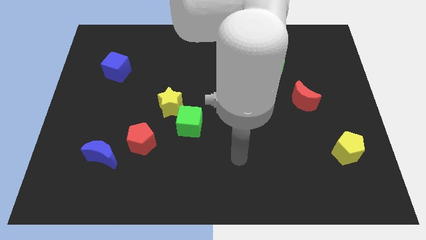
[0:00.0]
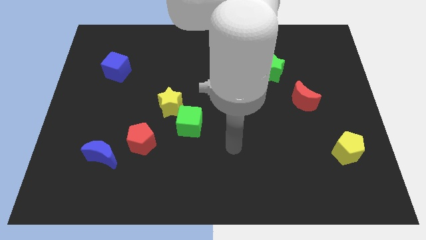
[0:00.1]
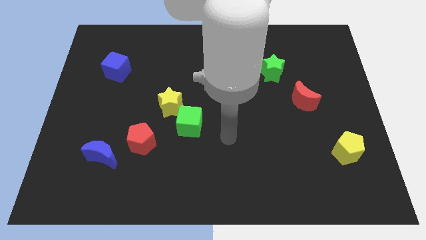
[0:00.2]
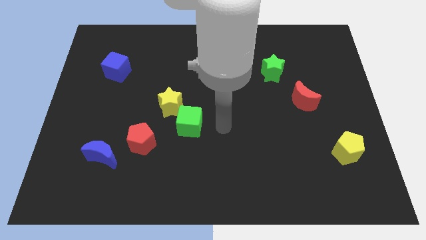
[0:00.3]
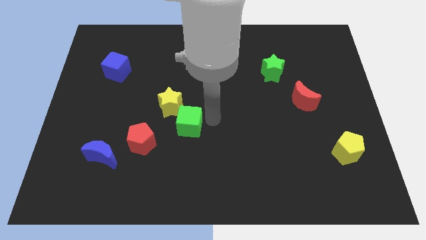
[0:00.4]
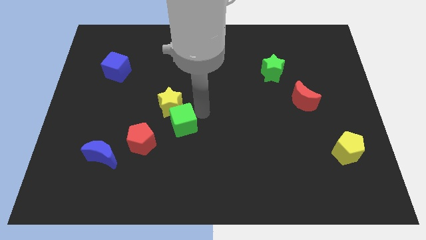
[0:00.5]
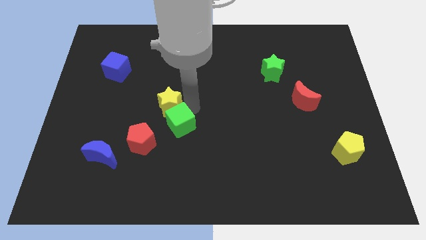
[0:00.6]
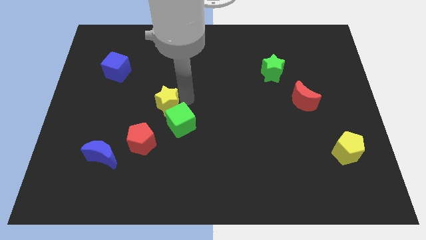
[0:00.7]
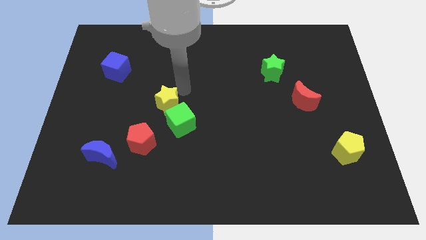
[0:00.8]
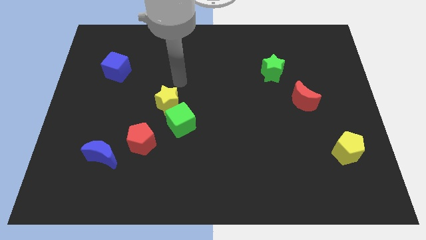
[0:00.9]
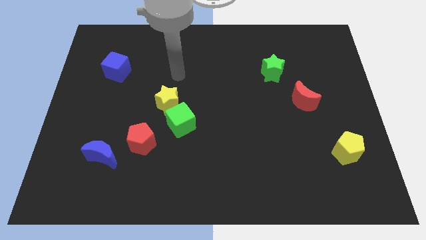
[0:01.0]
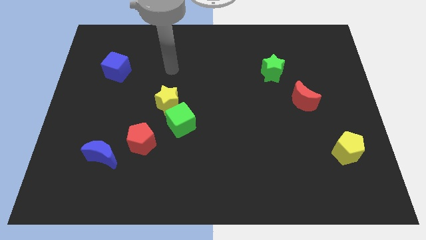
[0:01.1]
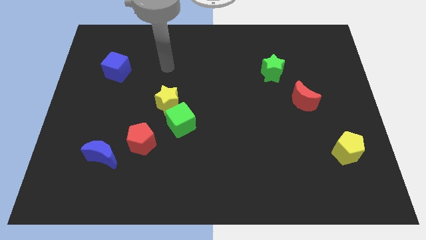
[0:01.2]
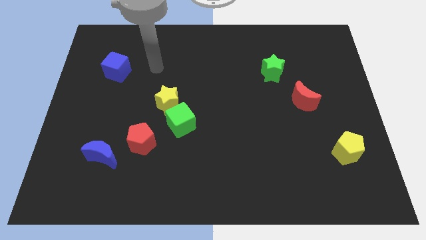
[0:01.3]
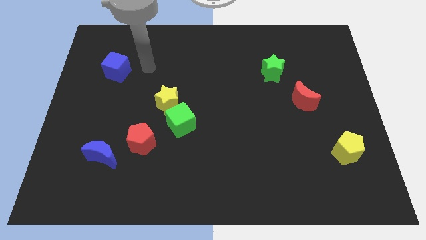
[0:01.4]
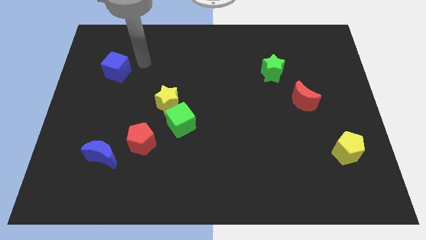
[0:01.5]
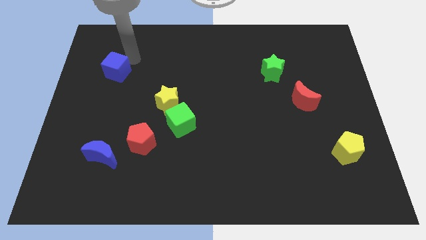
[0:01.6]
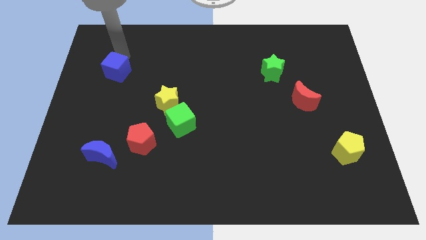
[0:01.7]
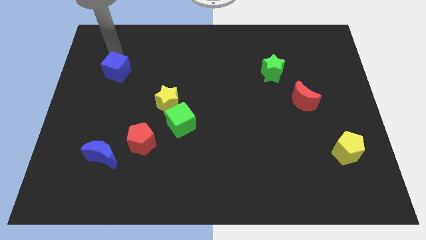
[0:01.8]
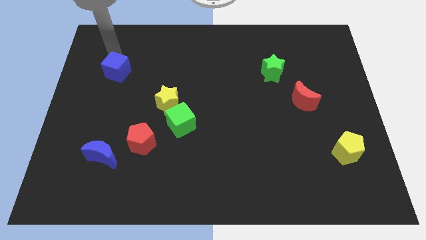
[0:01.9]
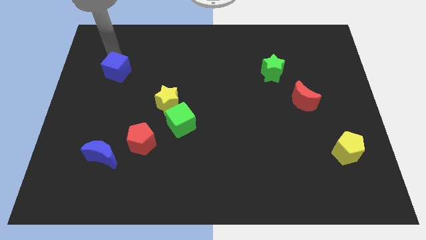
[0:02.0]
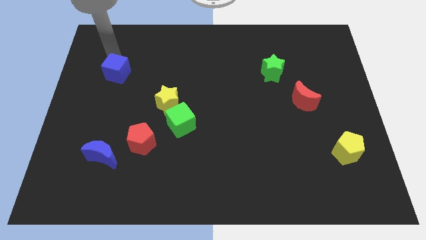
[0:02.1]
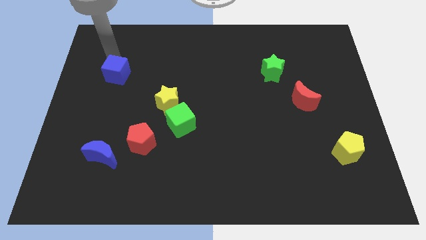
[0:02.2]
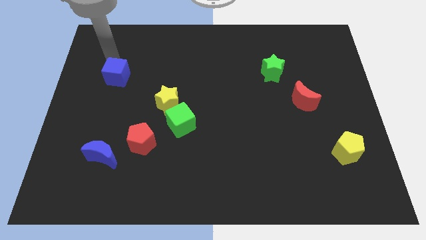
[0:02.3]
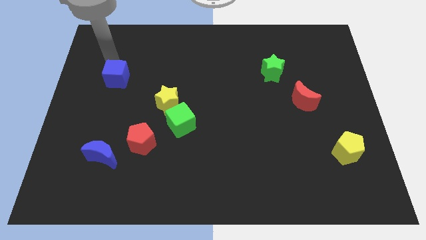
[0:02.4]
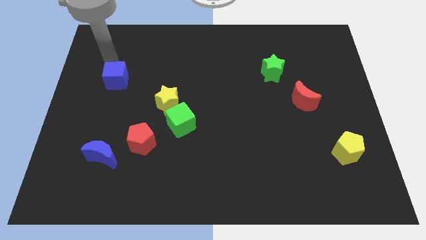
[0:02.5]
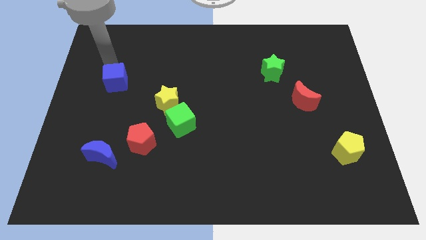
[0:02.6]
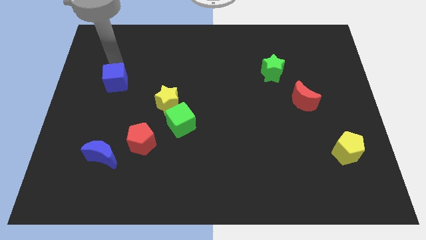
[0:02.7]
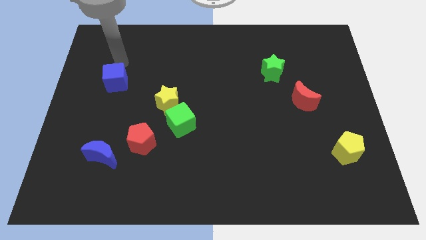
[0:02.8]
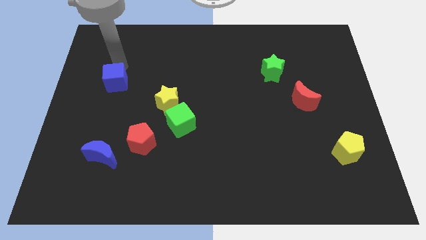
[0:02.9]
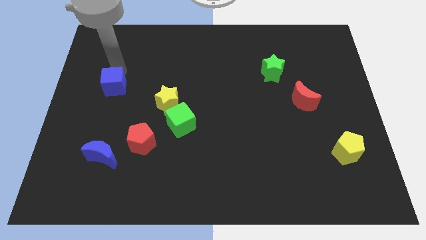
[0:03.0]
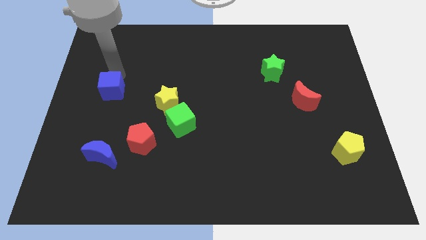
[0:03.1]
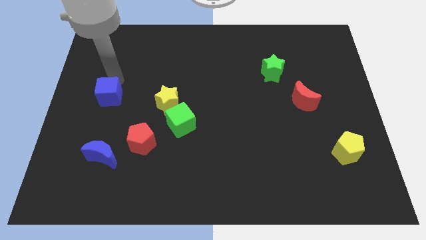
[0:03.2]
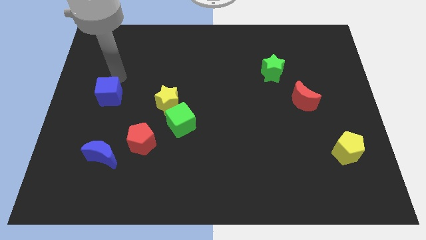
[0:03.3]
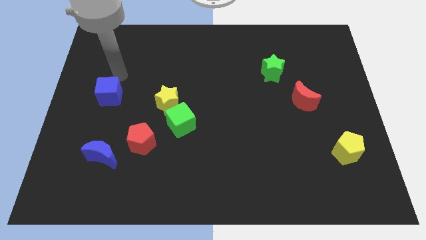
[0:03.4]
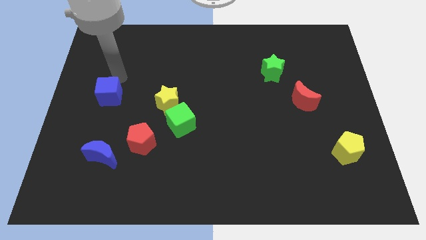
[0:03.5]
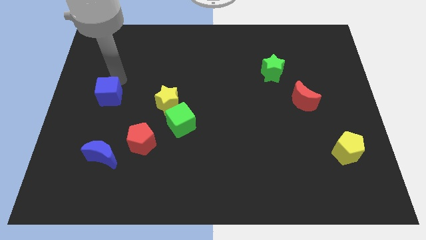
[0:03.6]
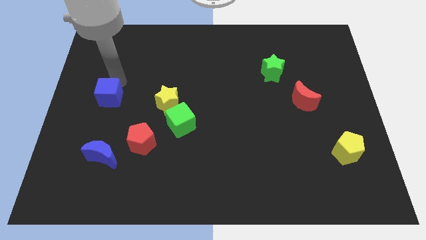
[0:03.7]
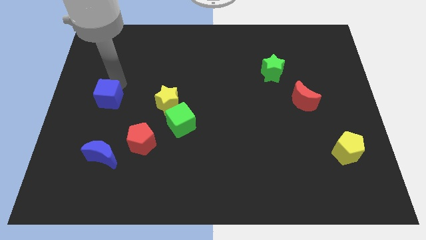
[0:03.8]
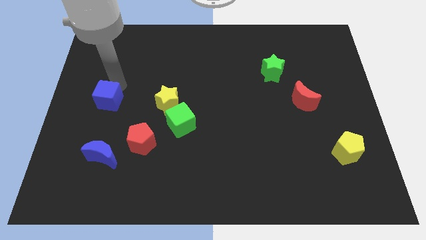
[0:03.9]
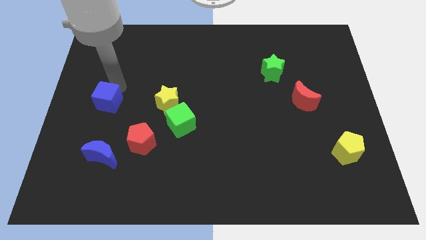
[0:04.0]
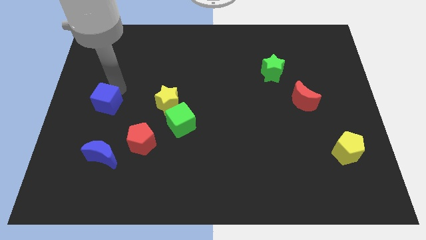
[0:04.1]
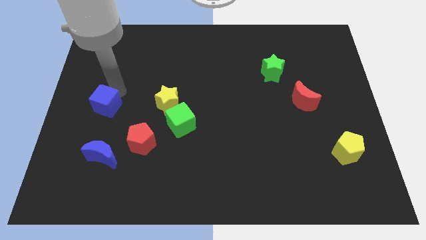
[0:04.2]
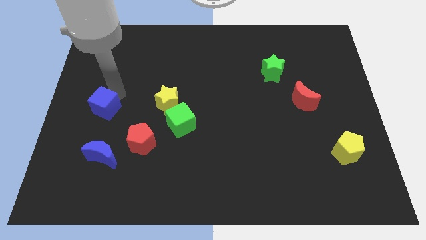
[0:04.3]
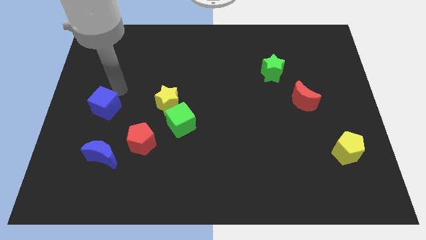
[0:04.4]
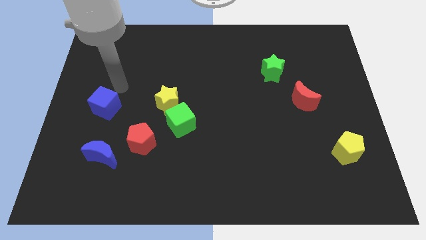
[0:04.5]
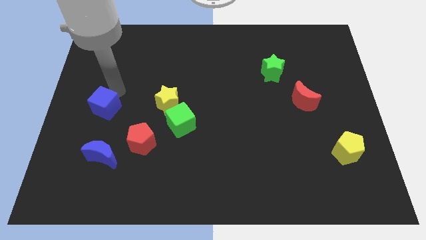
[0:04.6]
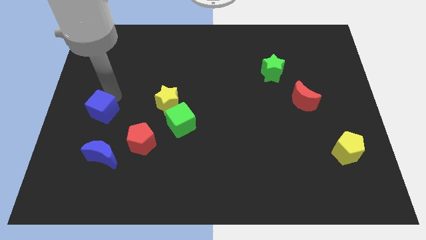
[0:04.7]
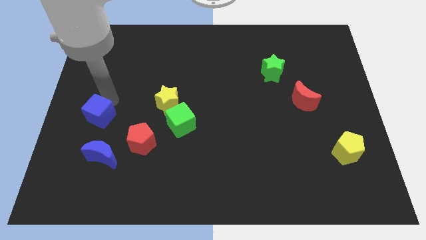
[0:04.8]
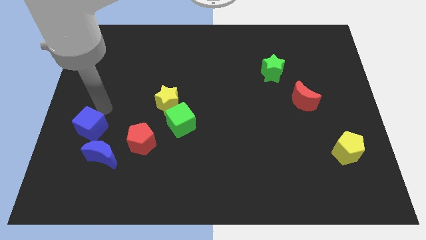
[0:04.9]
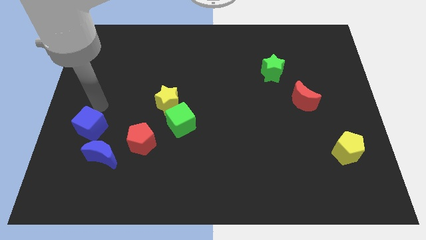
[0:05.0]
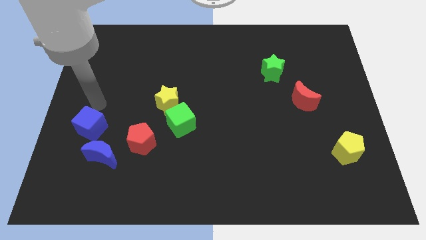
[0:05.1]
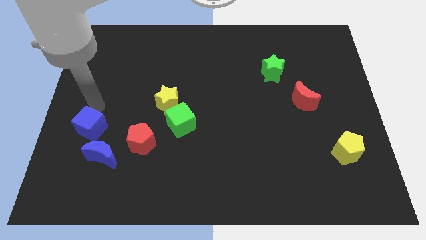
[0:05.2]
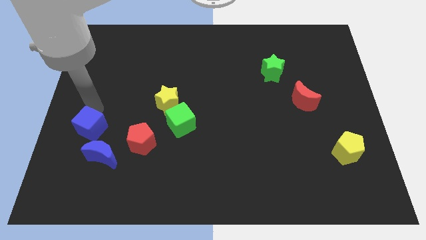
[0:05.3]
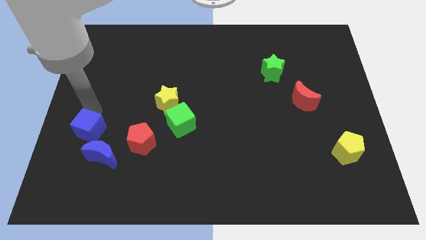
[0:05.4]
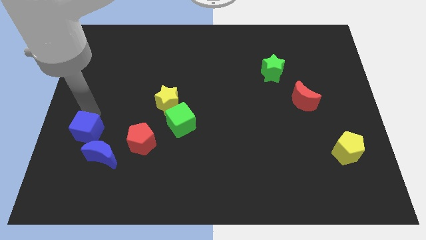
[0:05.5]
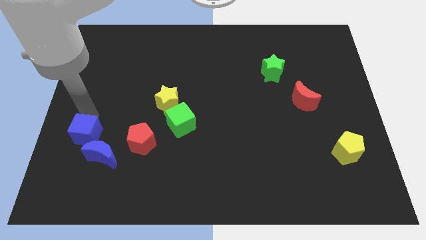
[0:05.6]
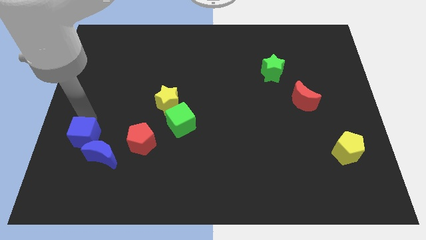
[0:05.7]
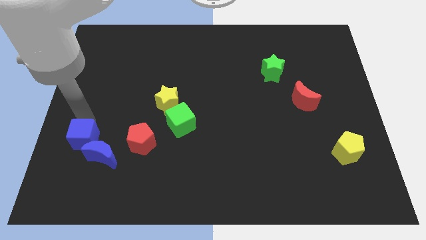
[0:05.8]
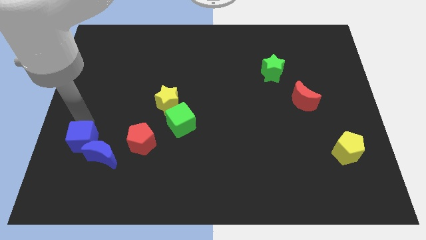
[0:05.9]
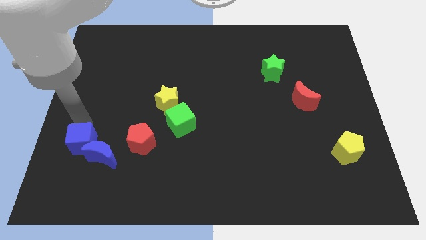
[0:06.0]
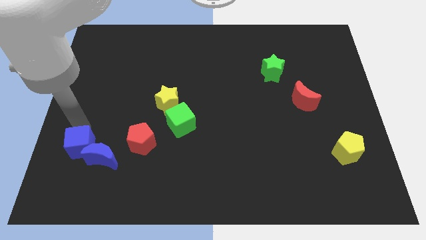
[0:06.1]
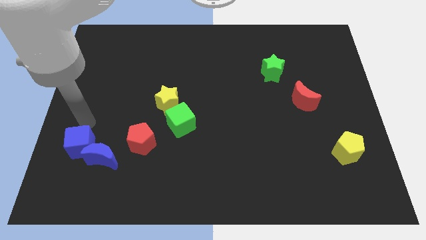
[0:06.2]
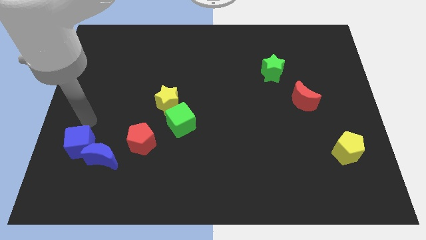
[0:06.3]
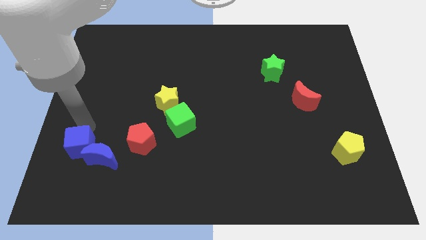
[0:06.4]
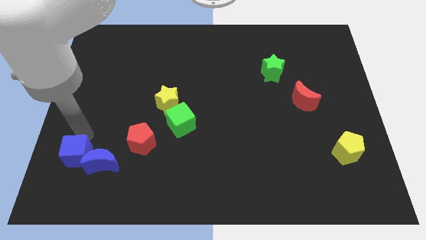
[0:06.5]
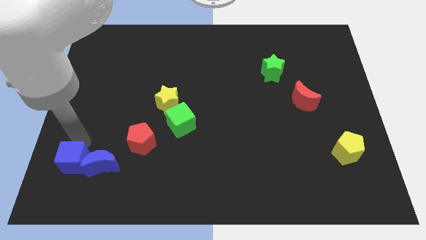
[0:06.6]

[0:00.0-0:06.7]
slide the blue cube diagonally down and to the left of the blue moon
